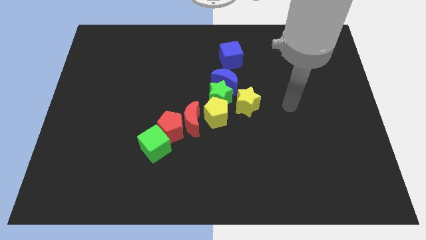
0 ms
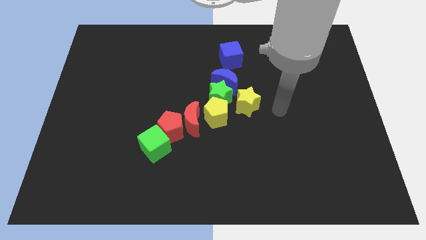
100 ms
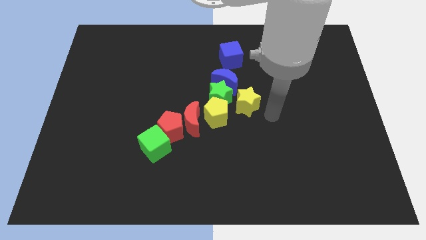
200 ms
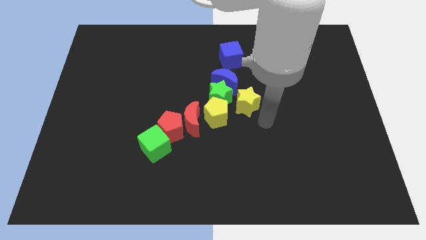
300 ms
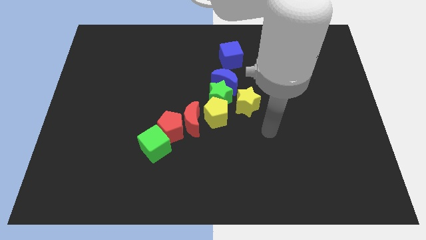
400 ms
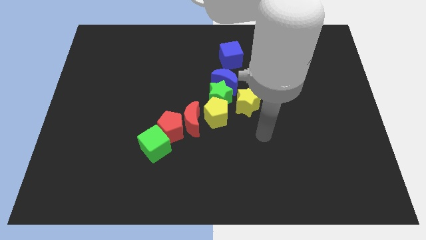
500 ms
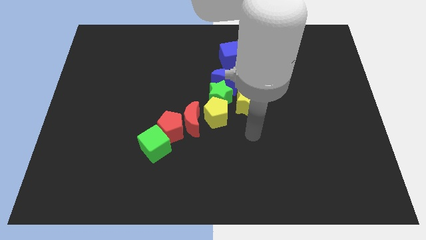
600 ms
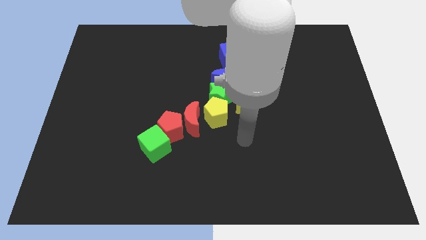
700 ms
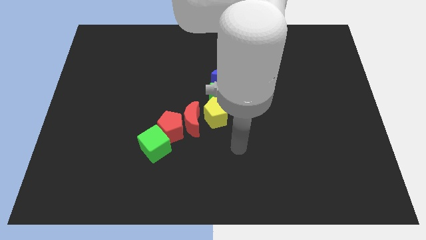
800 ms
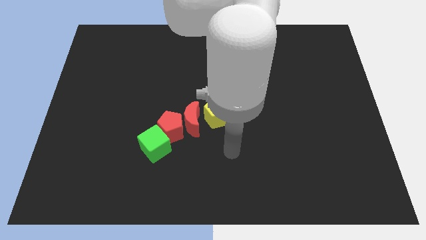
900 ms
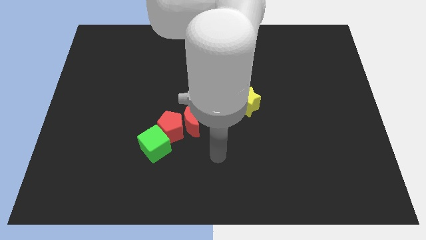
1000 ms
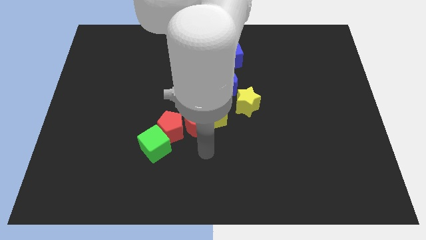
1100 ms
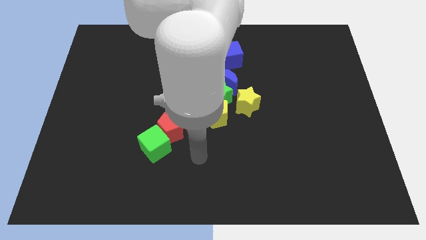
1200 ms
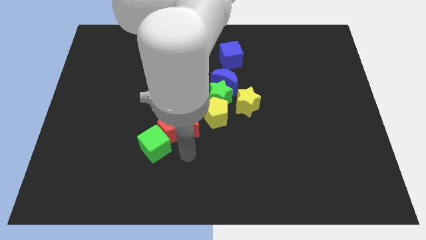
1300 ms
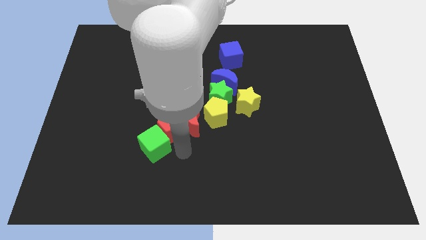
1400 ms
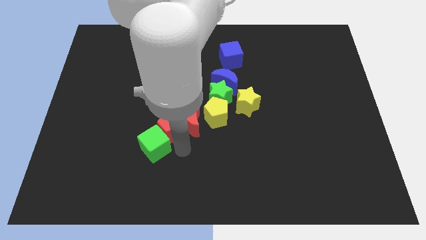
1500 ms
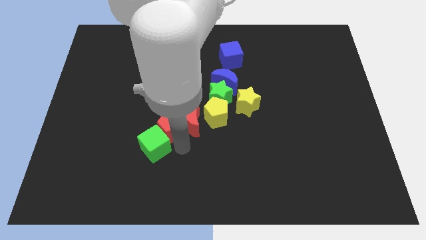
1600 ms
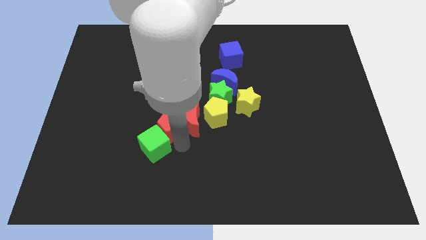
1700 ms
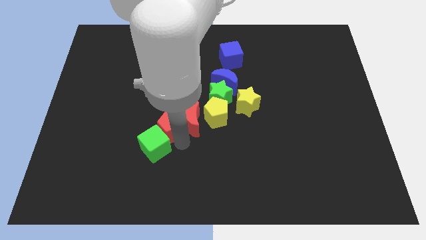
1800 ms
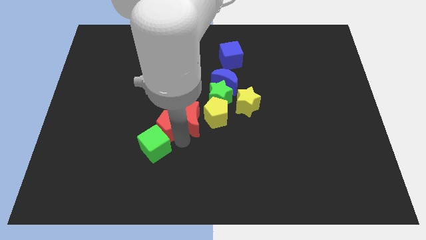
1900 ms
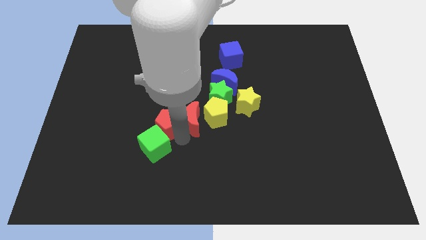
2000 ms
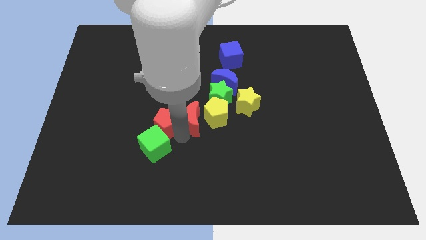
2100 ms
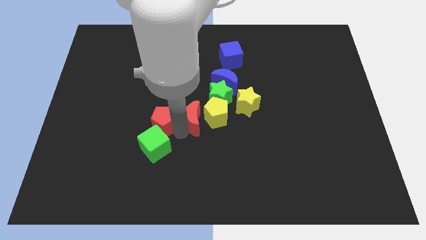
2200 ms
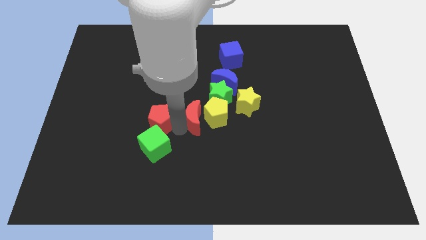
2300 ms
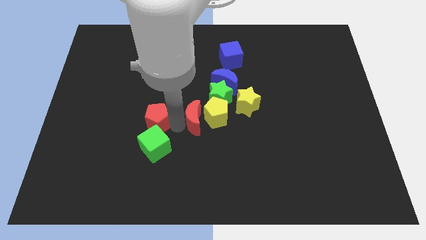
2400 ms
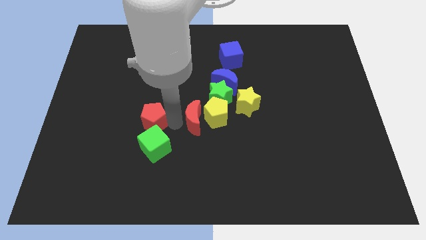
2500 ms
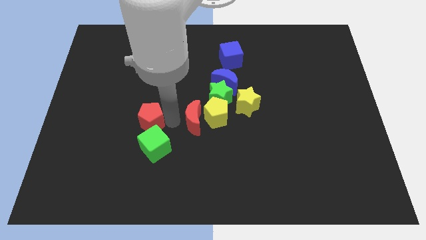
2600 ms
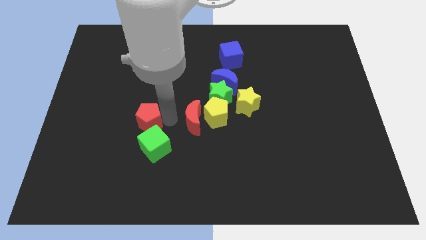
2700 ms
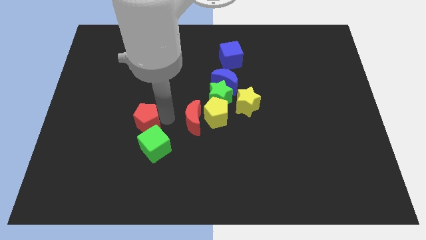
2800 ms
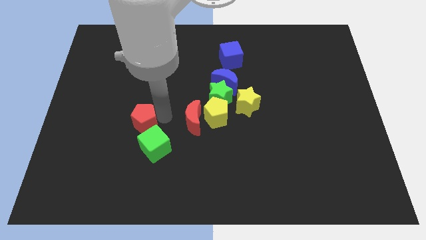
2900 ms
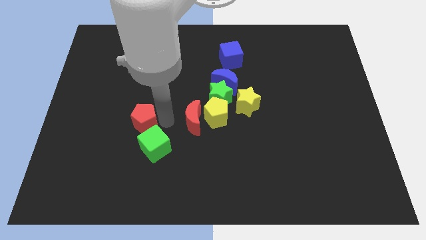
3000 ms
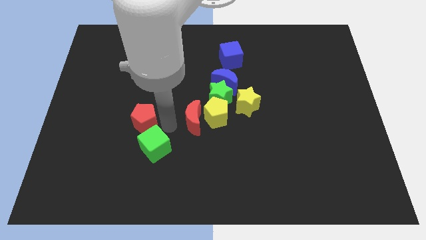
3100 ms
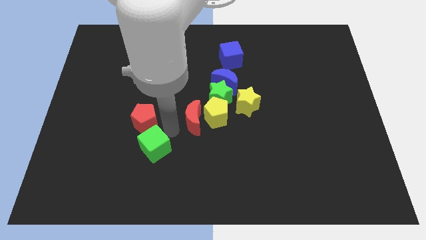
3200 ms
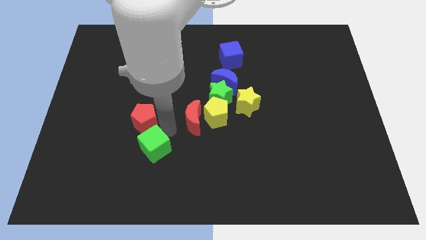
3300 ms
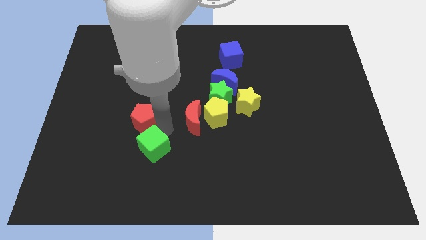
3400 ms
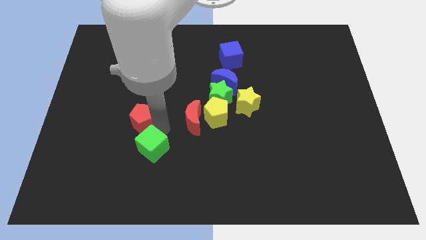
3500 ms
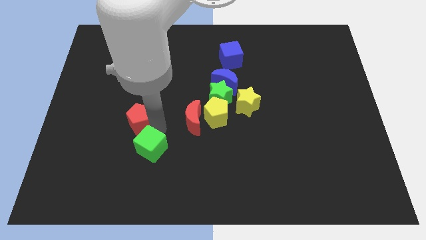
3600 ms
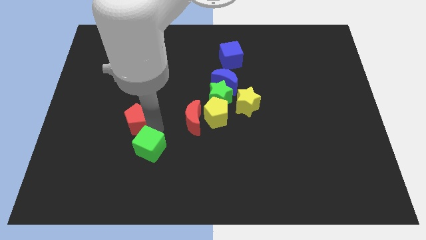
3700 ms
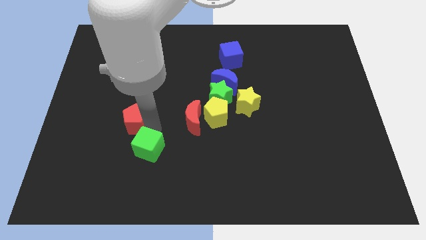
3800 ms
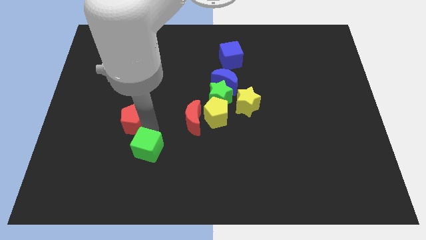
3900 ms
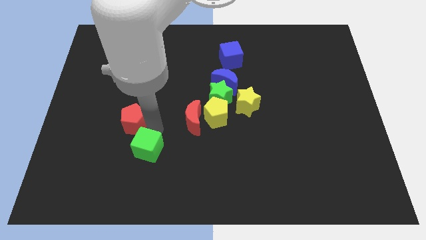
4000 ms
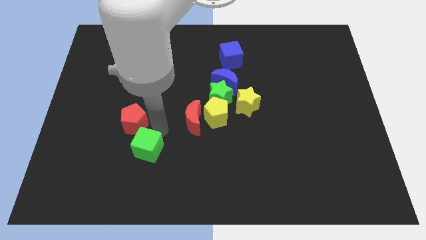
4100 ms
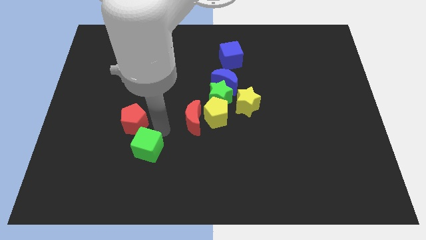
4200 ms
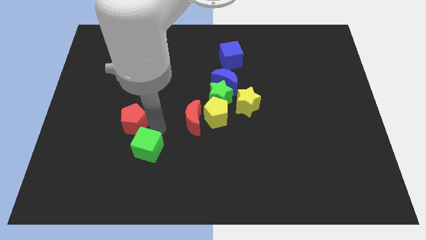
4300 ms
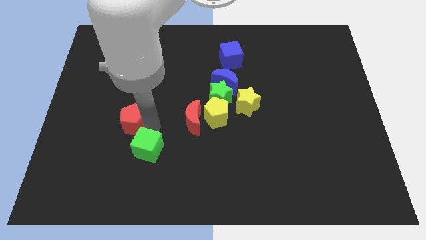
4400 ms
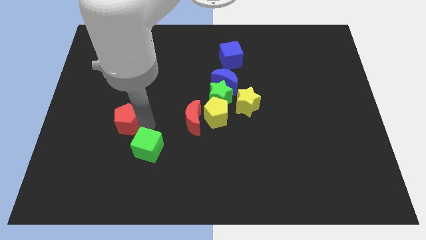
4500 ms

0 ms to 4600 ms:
move the red pentagon away from the red moon and green cube

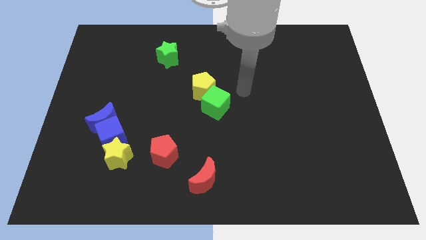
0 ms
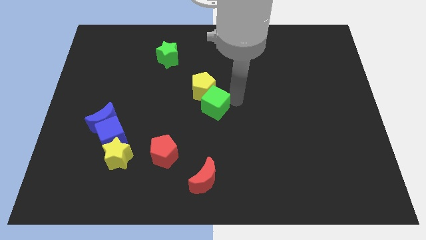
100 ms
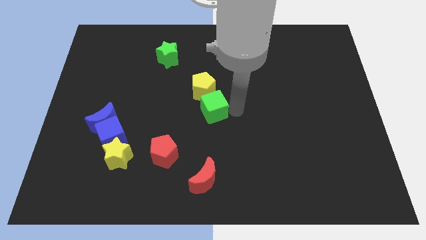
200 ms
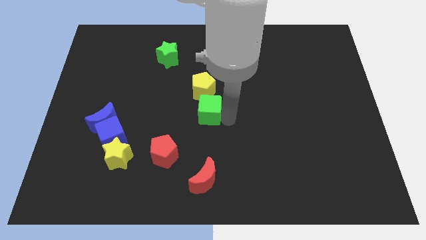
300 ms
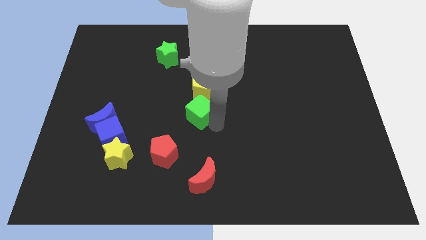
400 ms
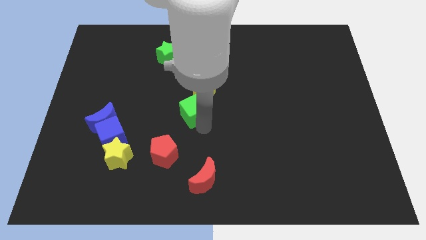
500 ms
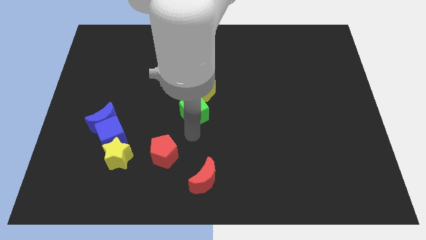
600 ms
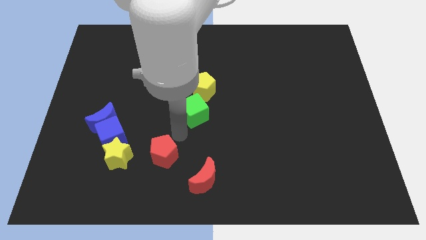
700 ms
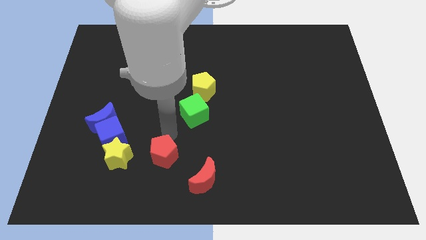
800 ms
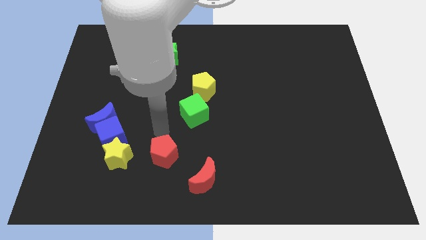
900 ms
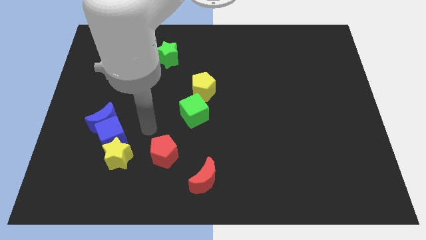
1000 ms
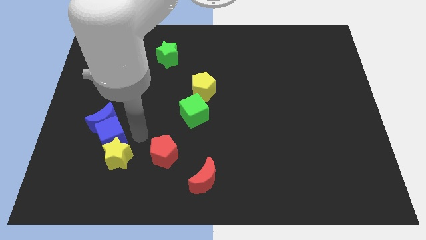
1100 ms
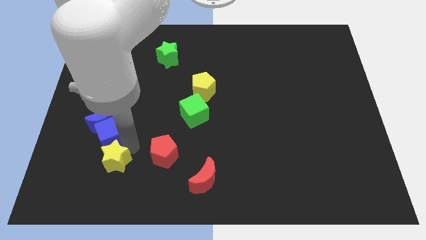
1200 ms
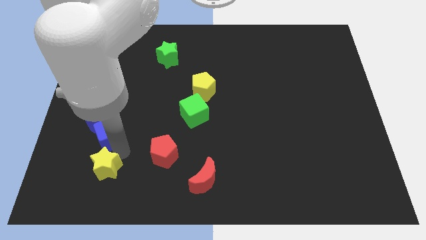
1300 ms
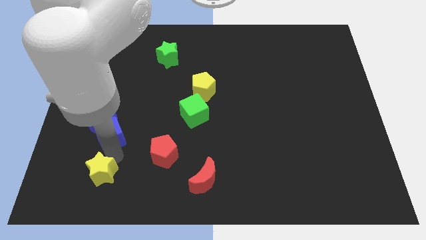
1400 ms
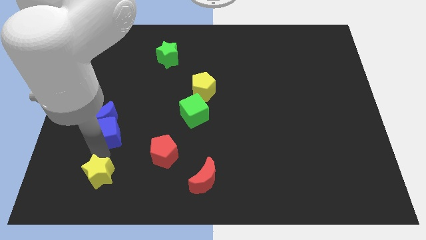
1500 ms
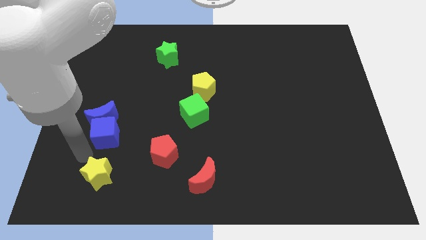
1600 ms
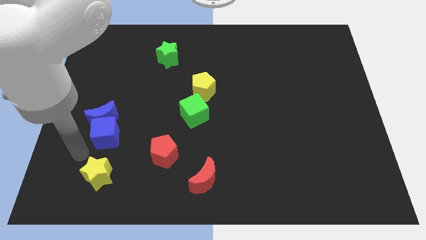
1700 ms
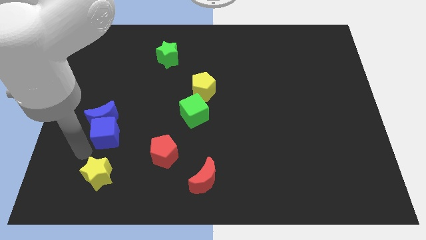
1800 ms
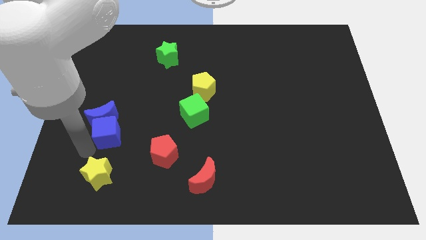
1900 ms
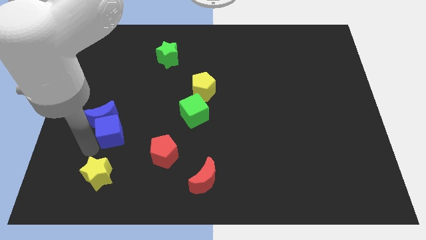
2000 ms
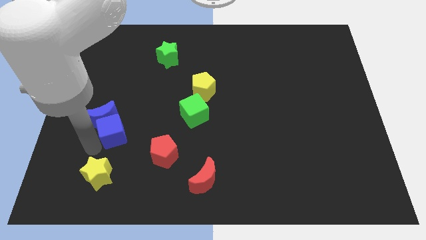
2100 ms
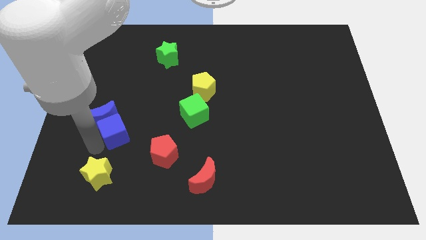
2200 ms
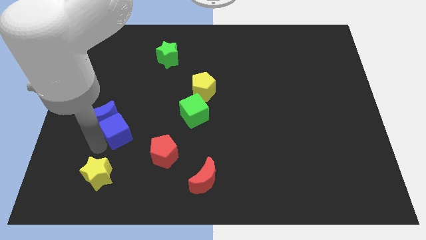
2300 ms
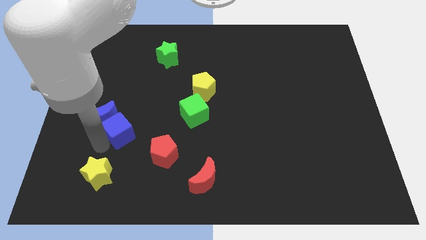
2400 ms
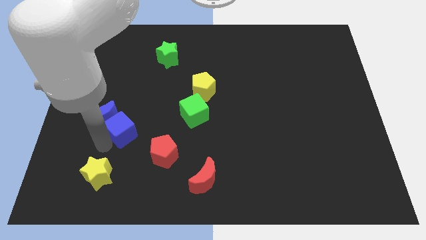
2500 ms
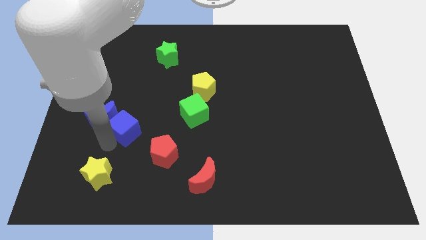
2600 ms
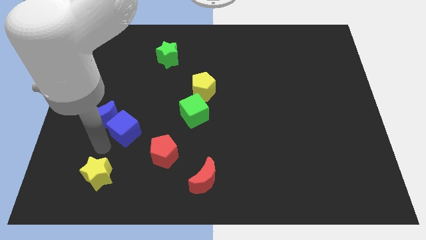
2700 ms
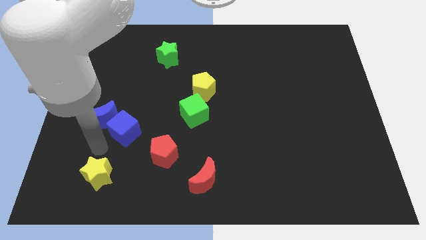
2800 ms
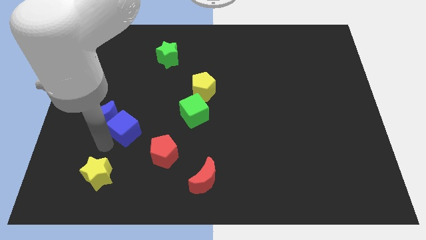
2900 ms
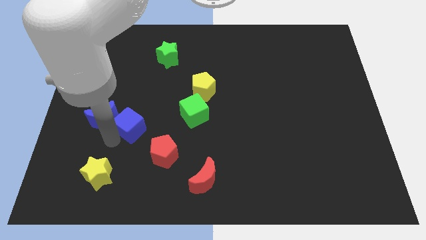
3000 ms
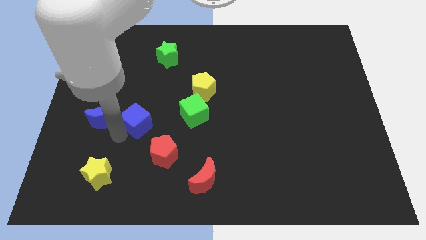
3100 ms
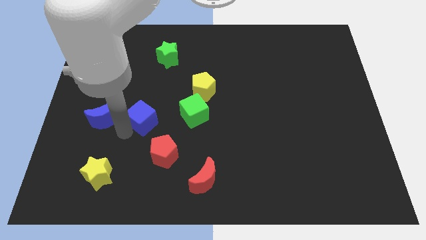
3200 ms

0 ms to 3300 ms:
pull the blue cube apart from the blue moon and yellow star

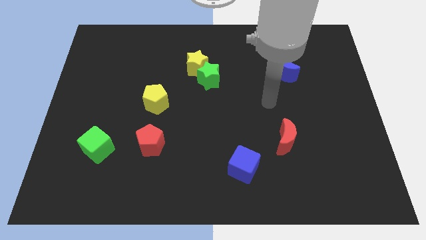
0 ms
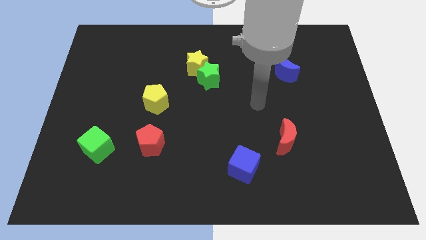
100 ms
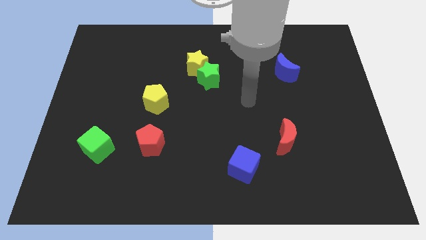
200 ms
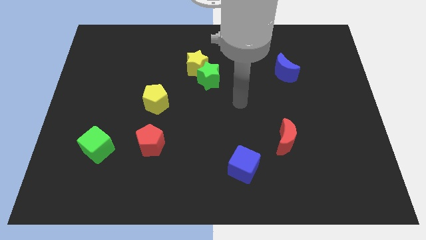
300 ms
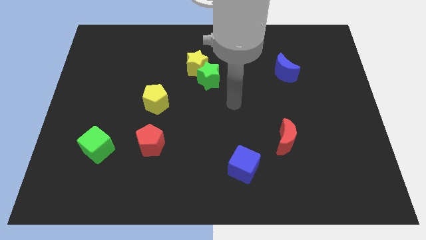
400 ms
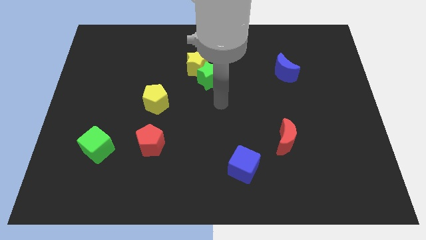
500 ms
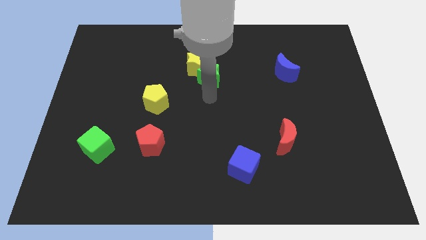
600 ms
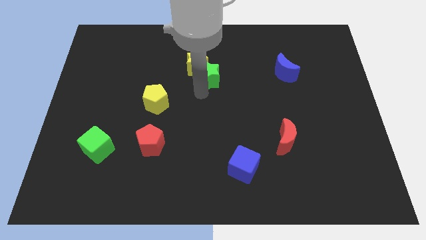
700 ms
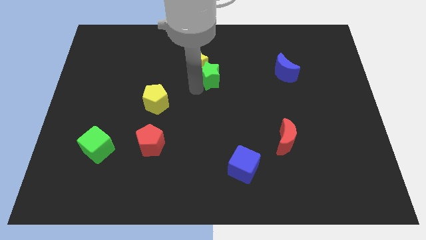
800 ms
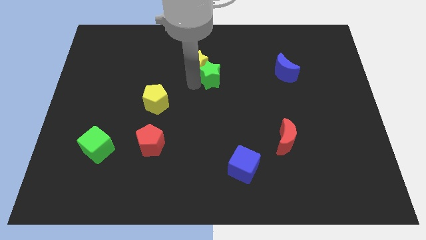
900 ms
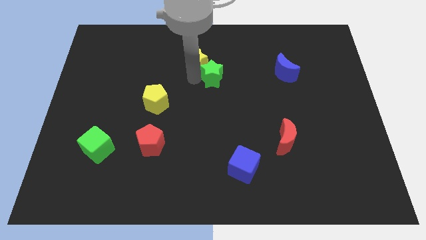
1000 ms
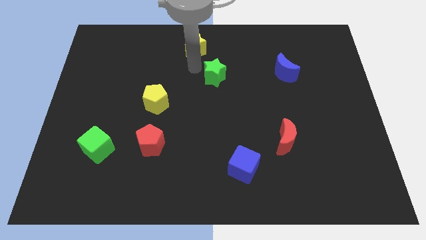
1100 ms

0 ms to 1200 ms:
separate the green star from the yellow star

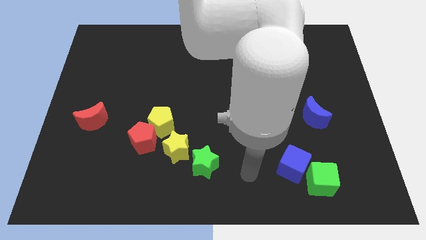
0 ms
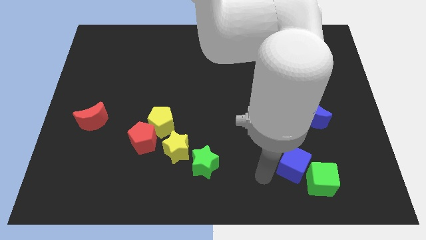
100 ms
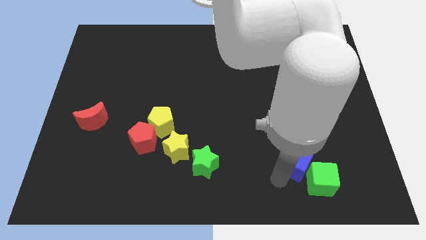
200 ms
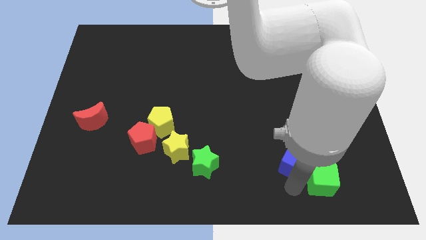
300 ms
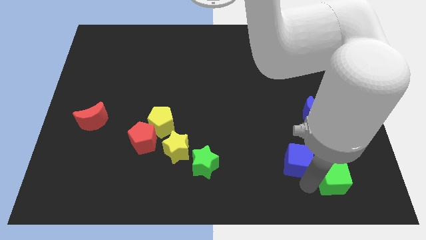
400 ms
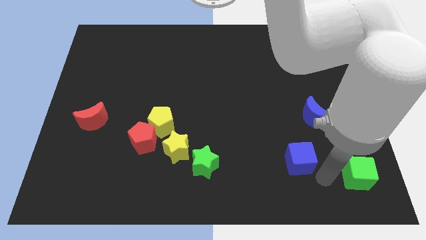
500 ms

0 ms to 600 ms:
move the blue cube away from the green cube
